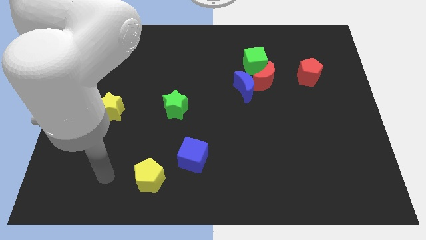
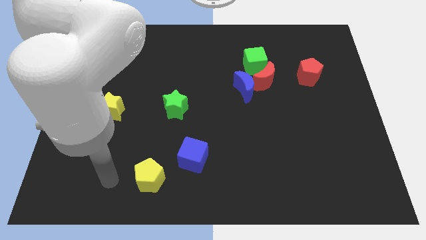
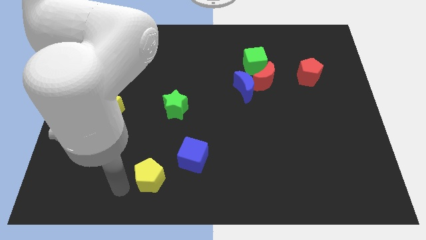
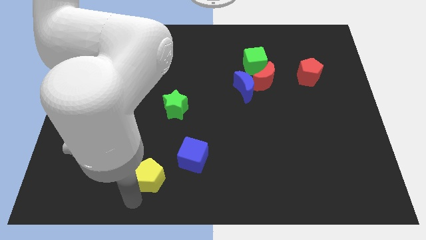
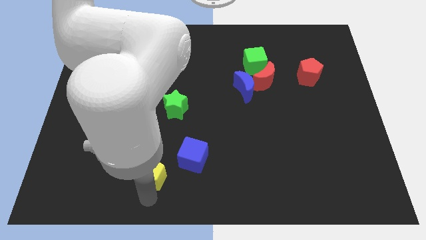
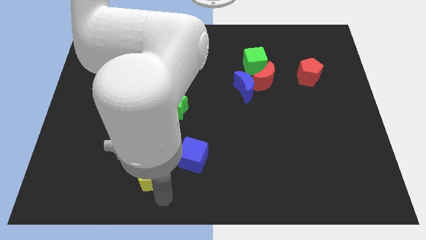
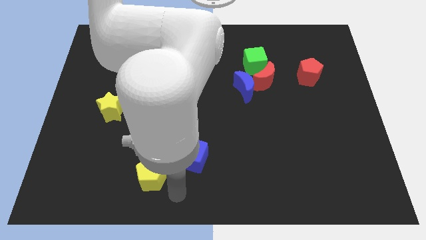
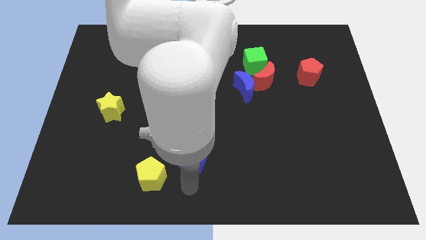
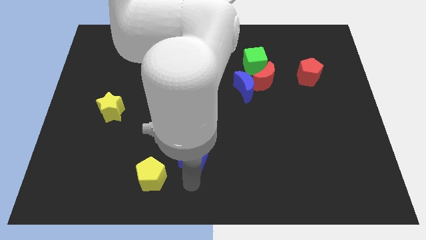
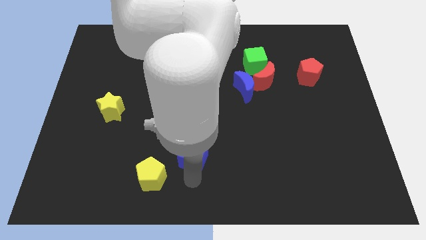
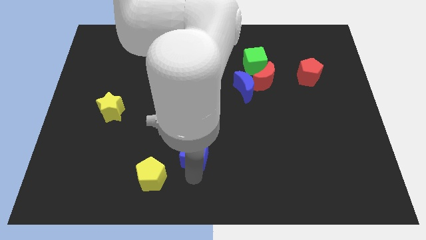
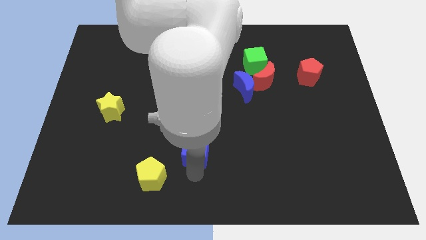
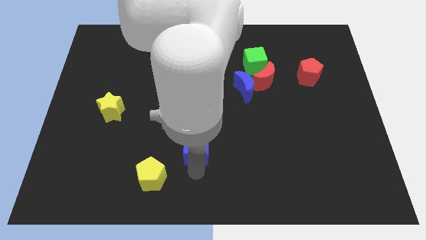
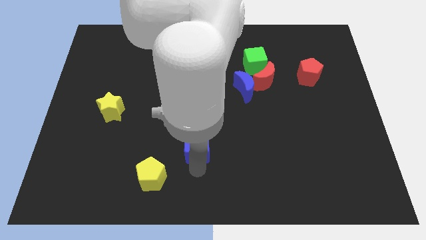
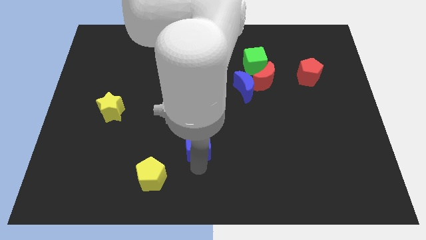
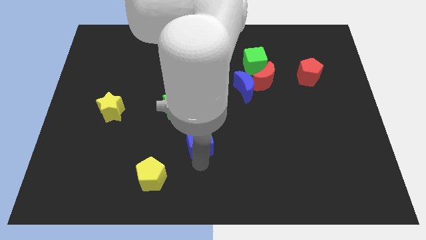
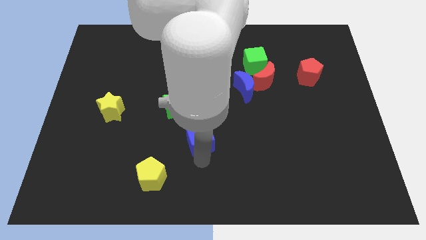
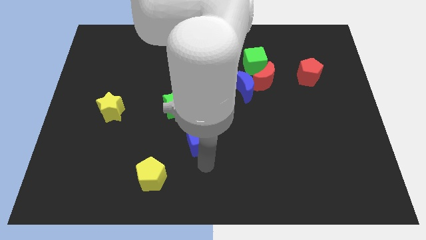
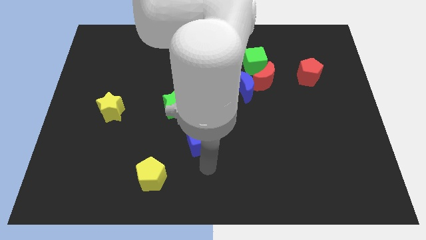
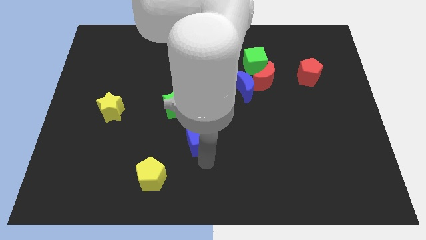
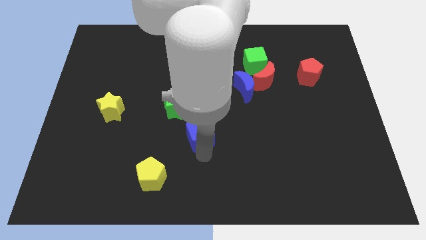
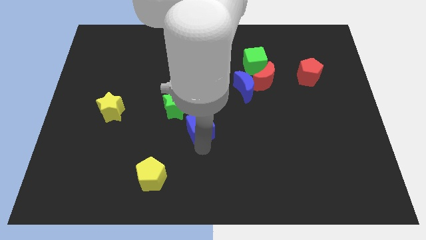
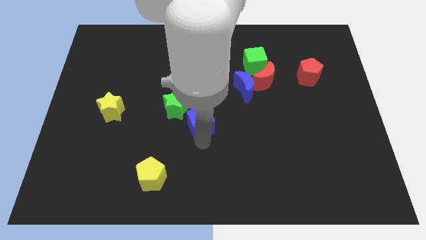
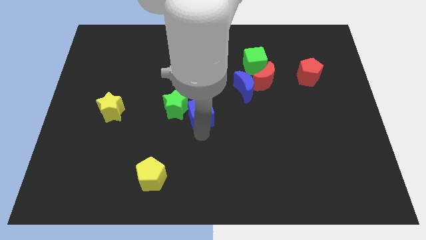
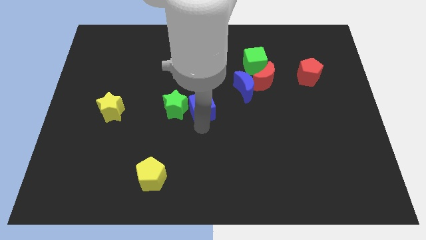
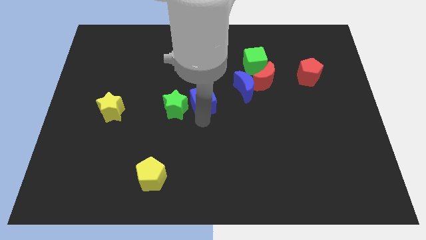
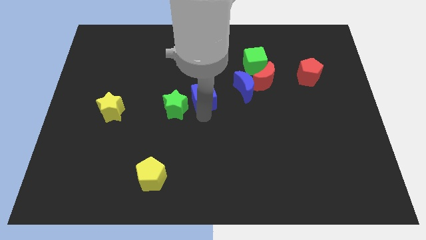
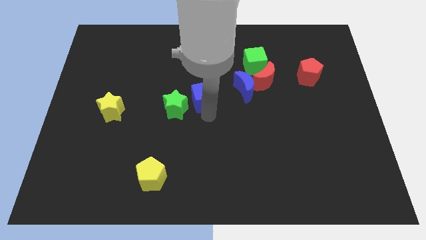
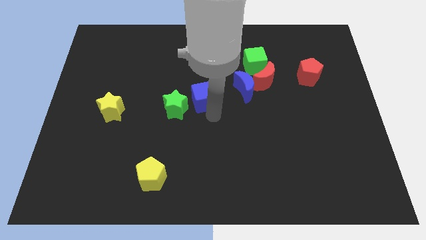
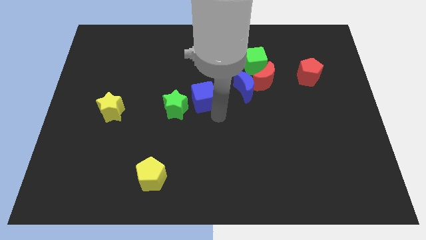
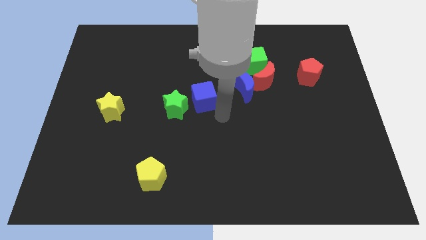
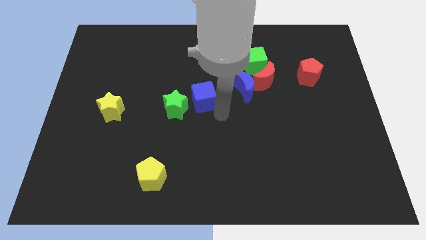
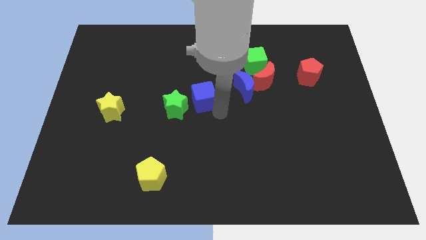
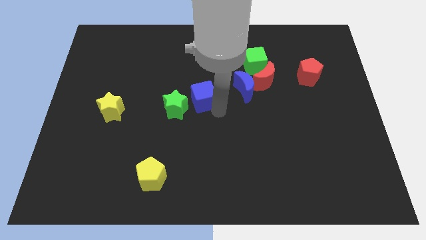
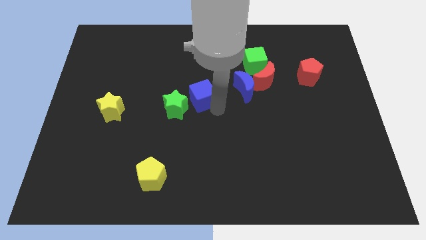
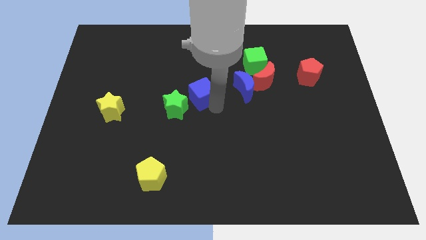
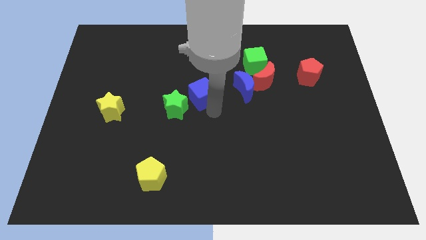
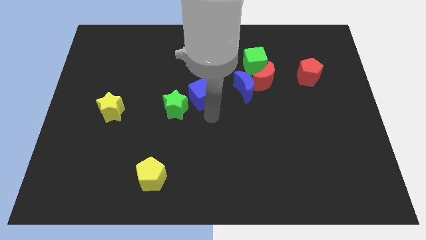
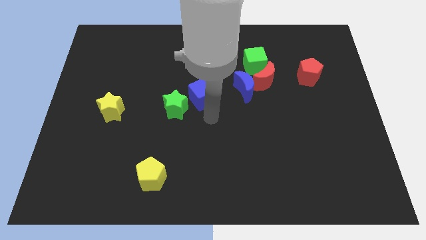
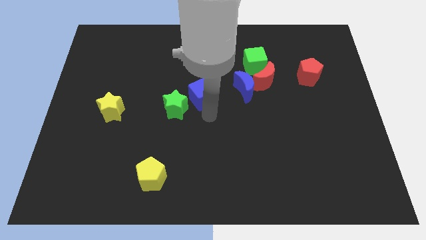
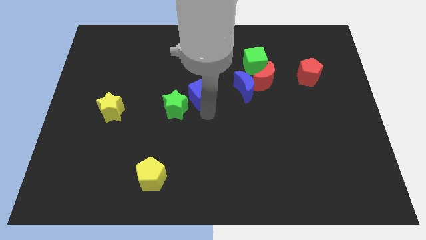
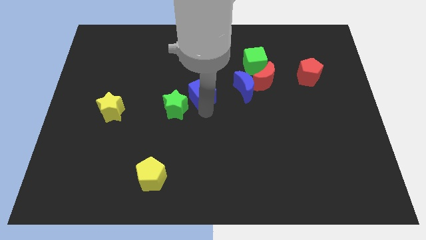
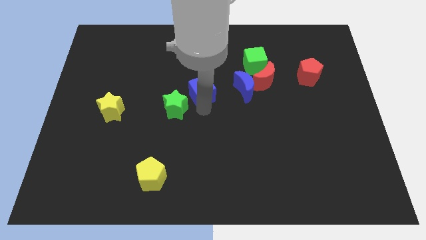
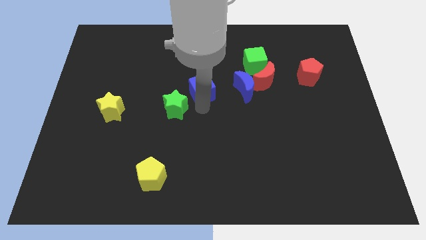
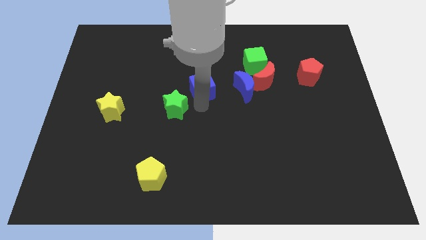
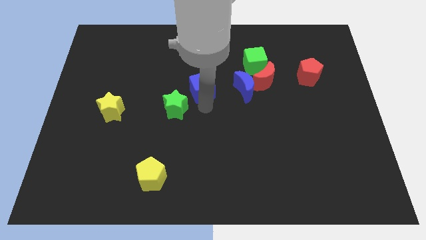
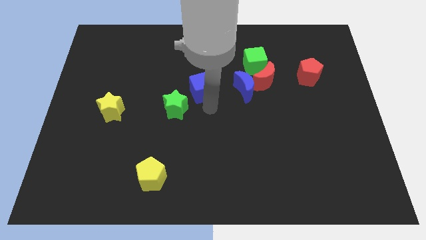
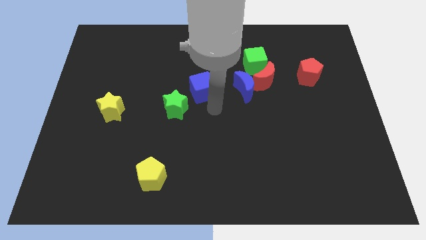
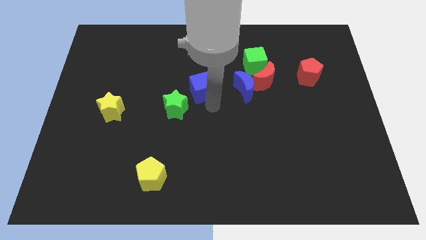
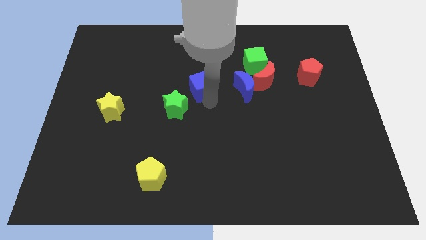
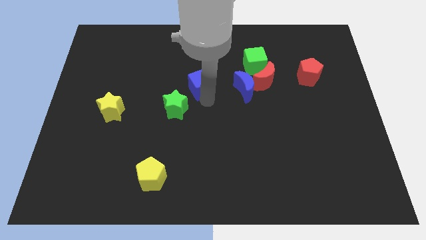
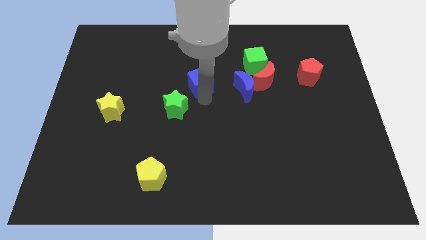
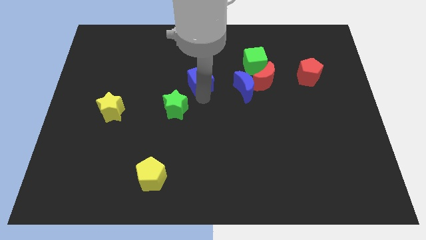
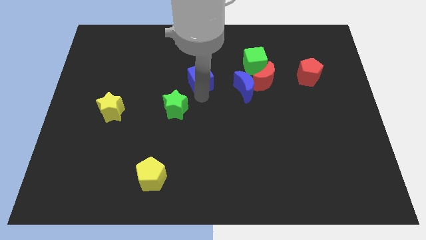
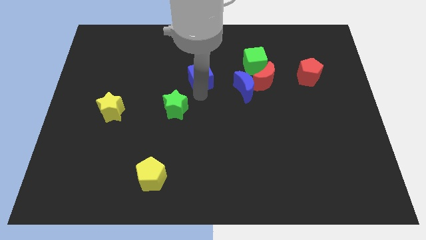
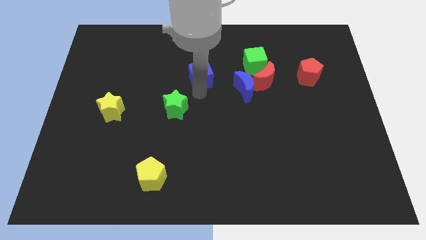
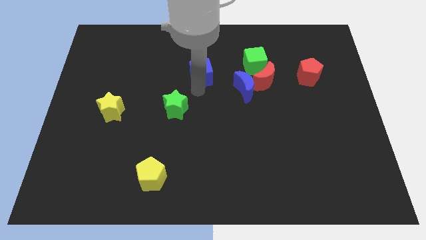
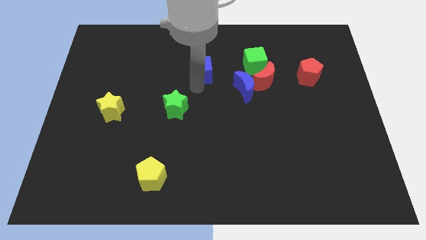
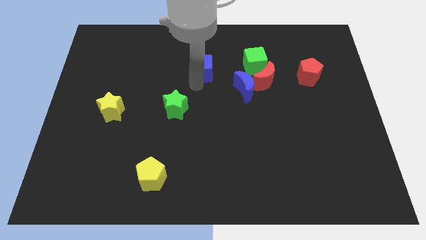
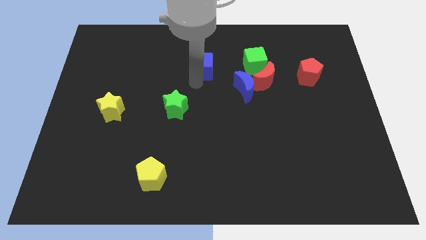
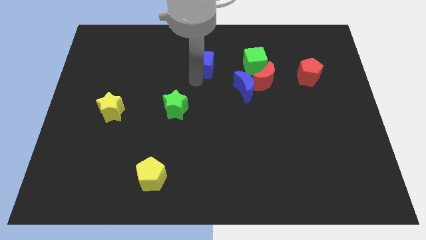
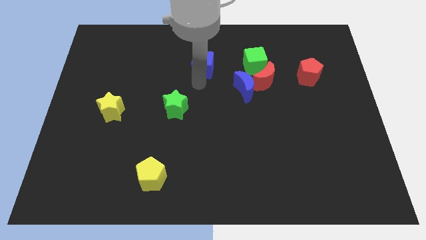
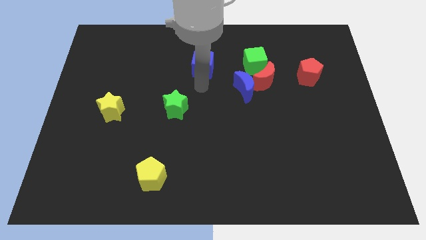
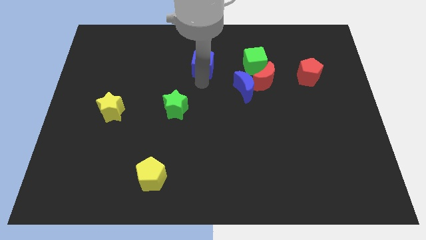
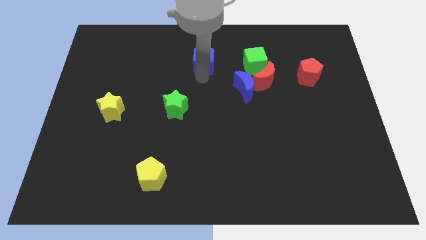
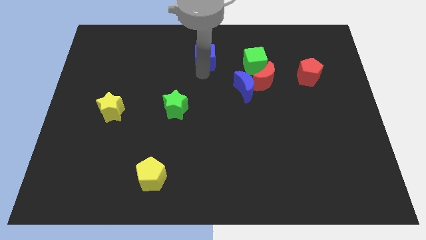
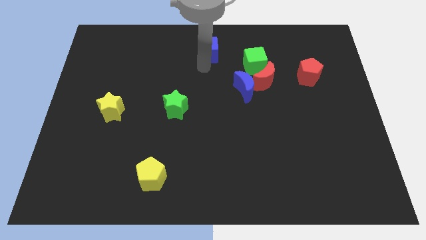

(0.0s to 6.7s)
put the blue cube to the top
